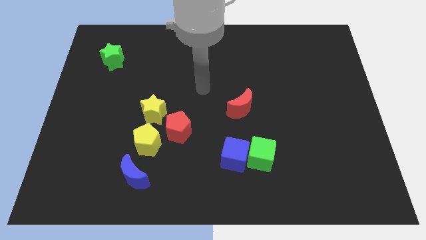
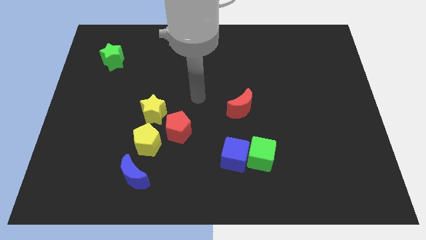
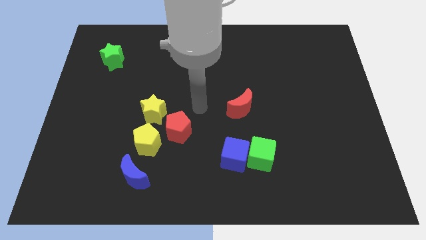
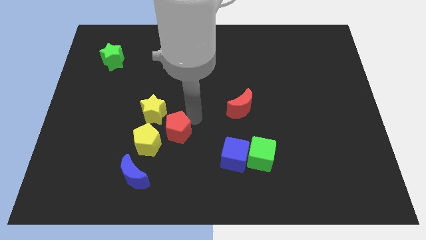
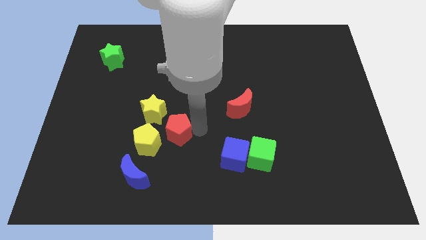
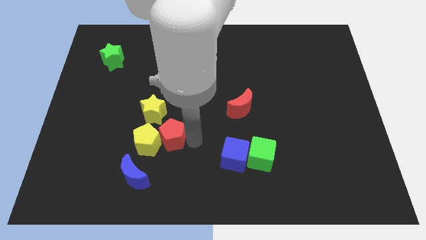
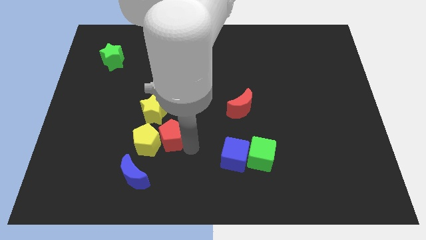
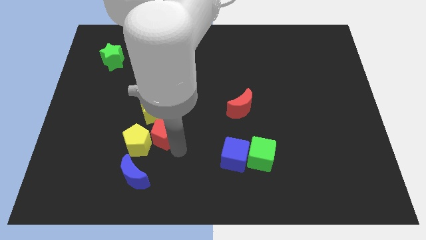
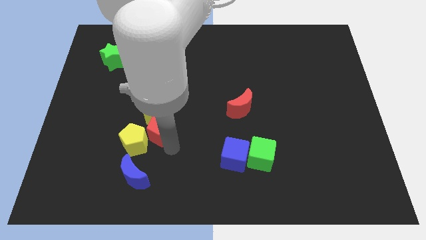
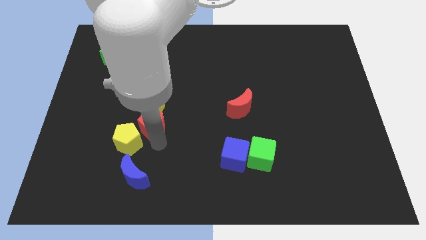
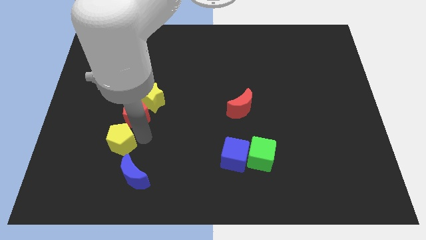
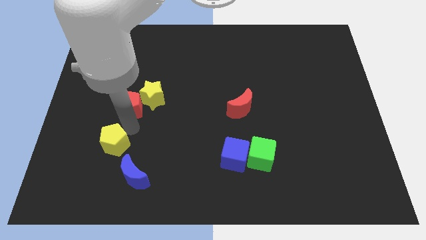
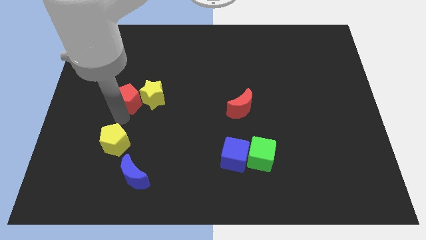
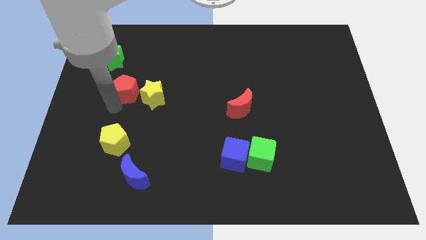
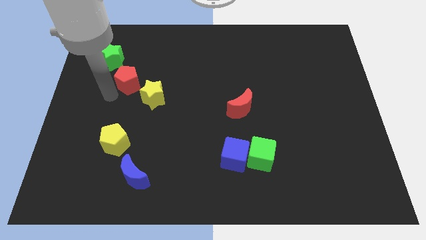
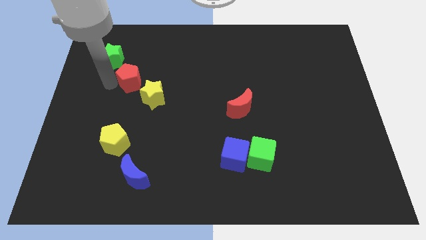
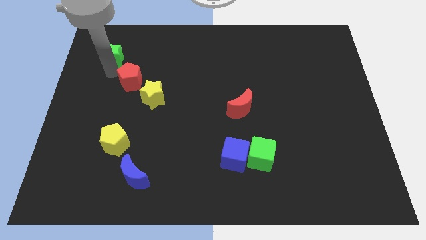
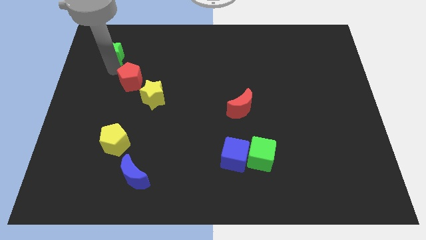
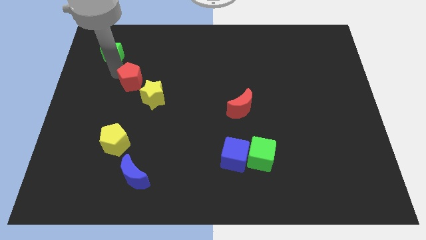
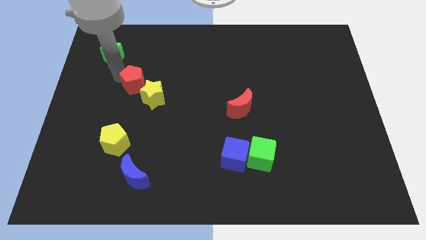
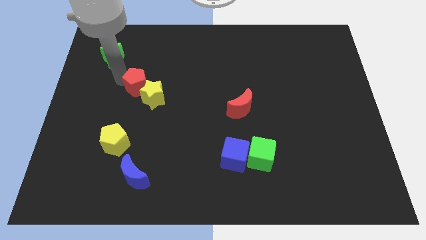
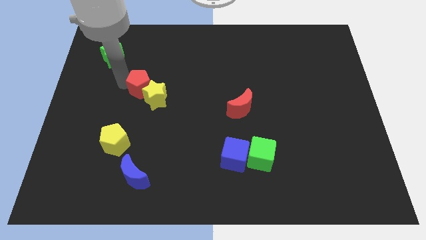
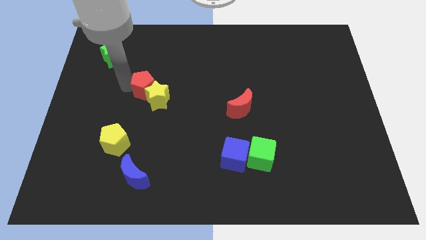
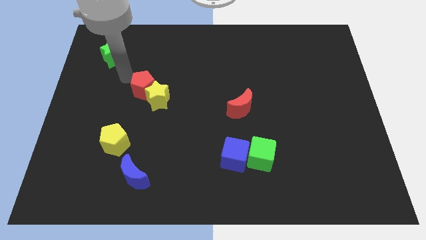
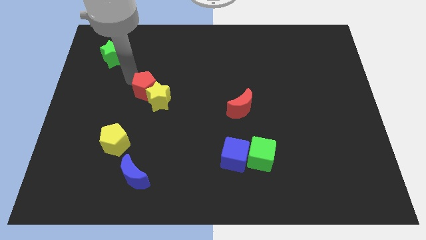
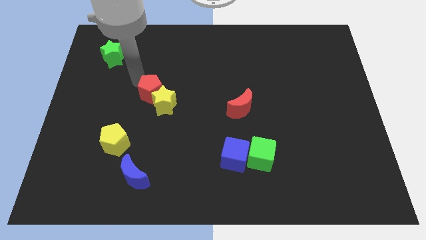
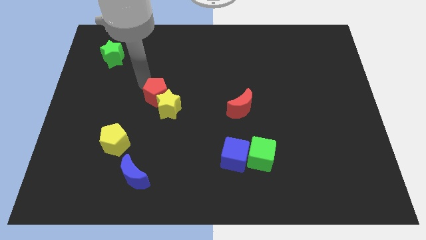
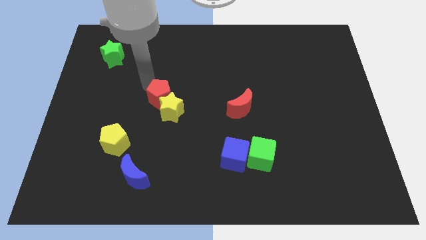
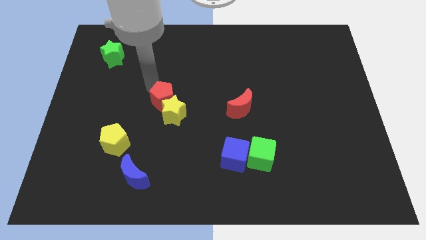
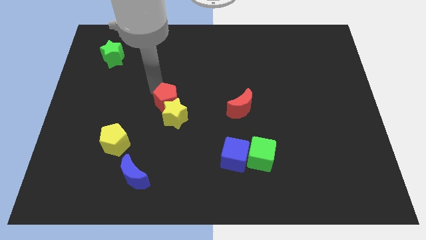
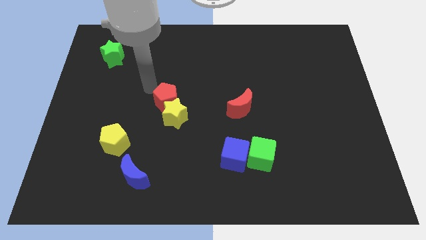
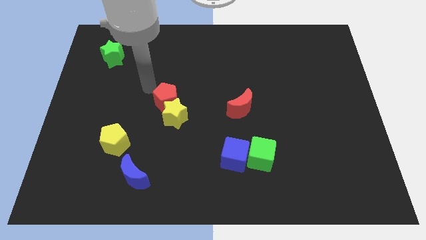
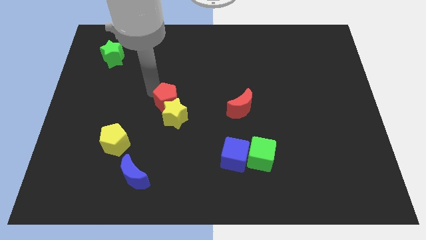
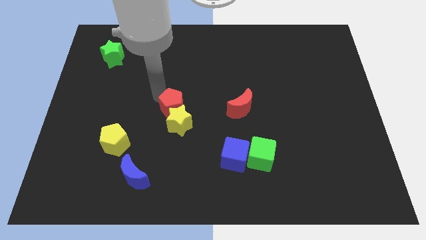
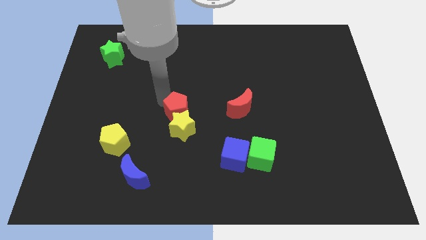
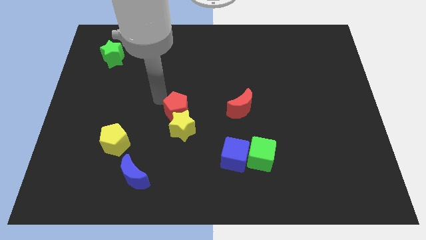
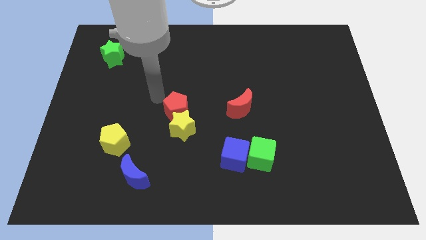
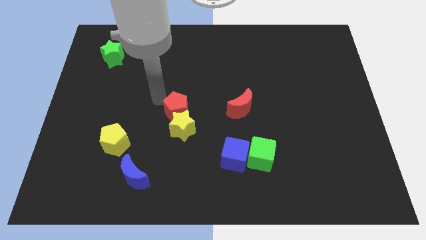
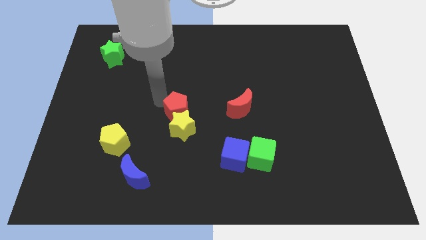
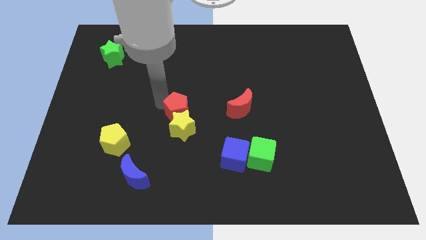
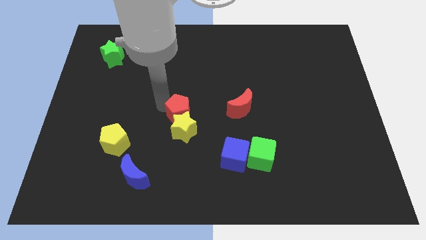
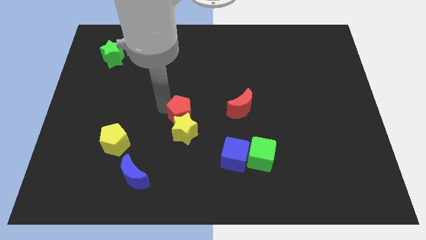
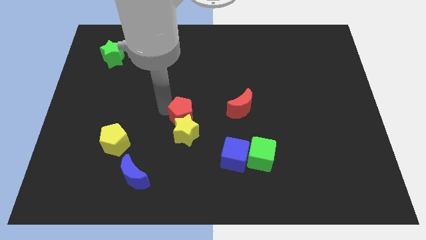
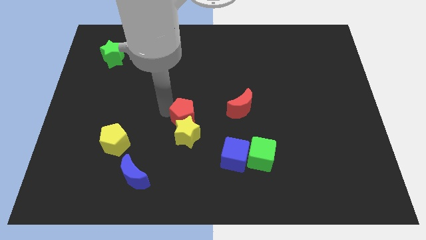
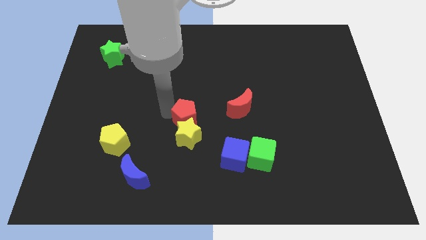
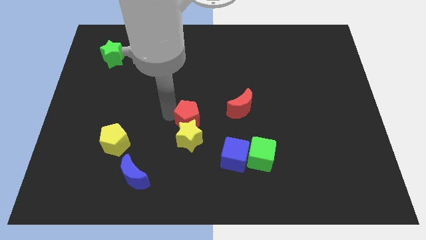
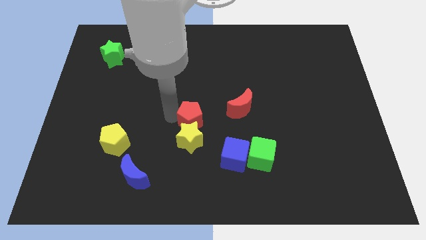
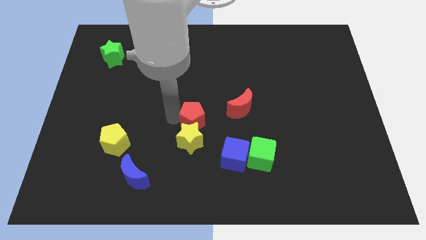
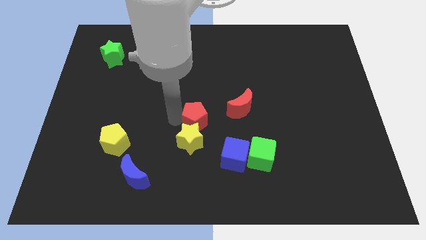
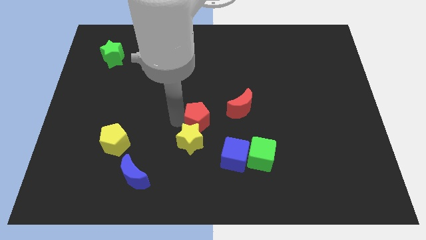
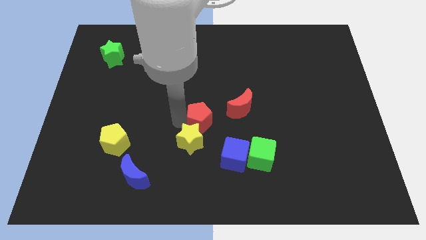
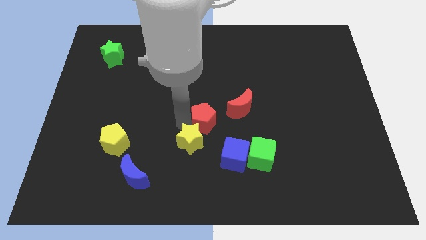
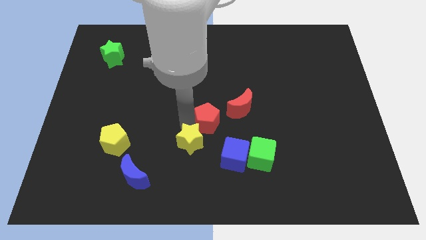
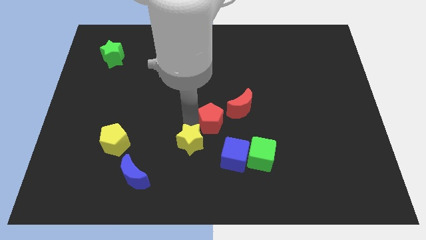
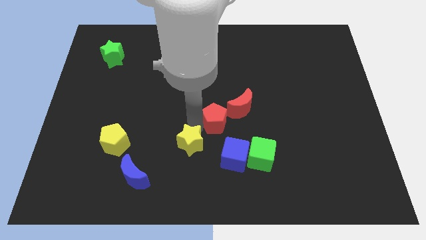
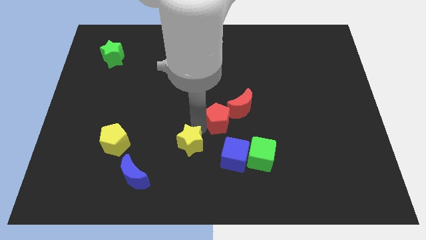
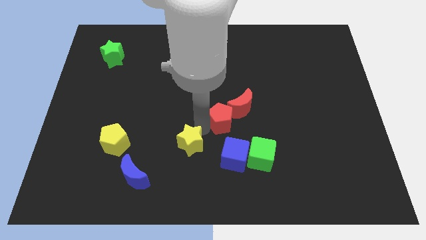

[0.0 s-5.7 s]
slide the red pentagon next to the red moon

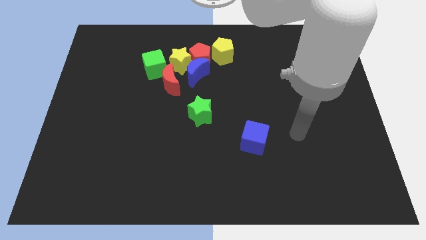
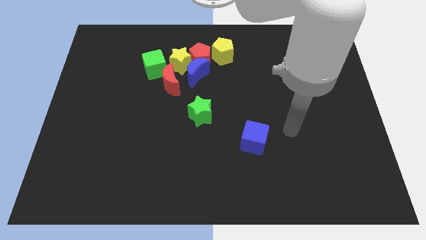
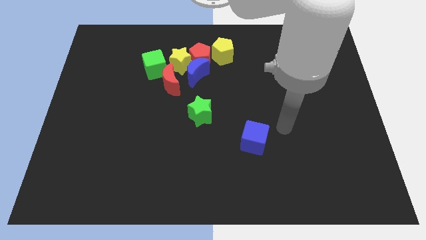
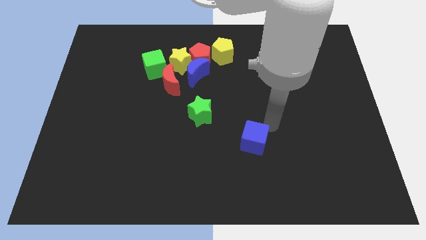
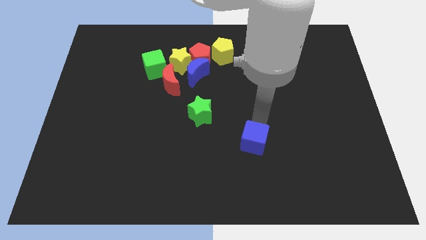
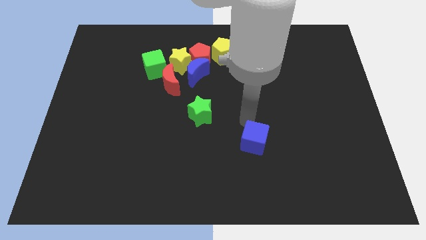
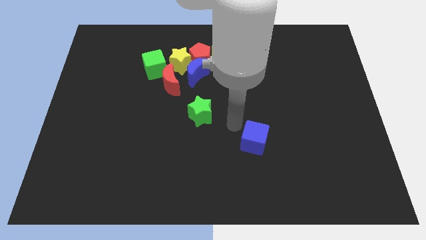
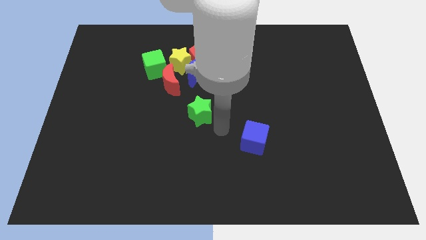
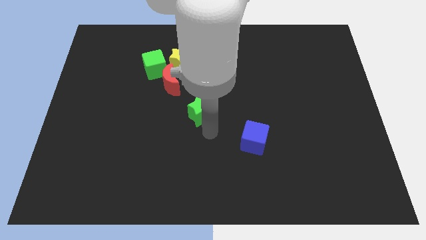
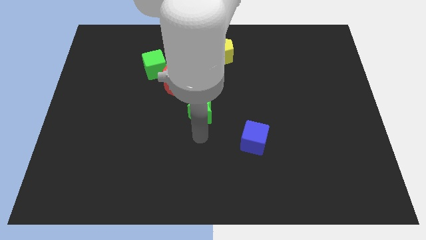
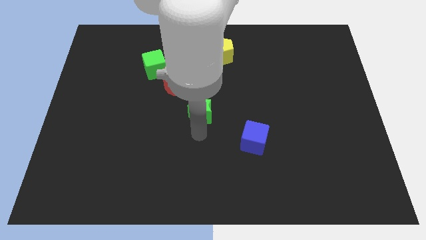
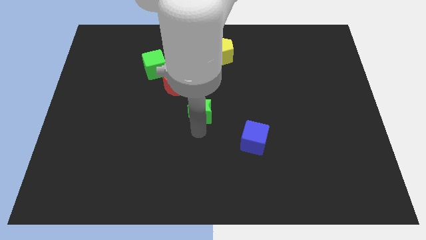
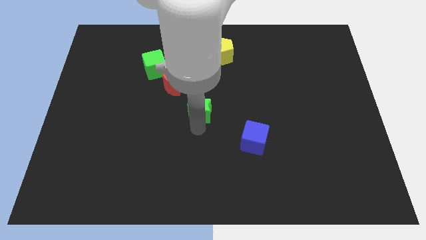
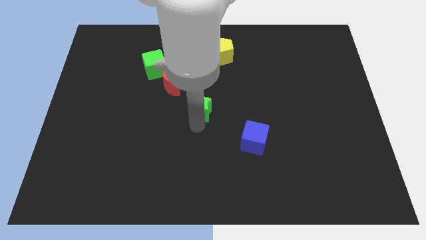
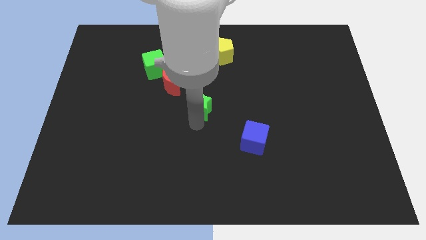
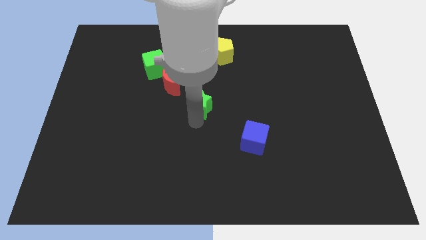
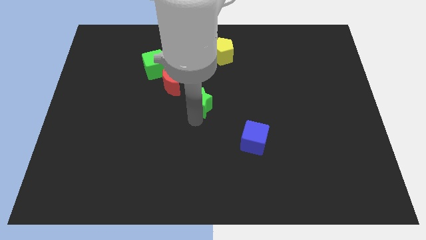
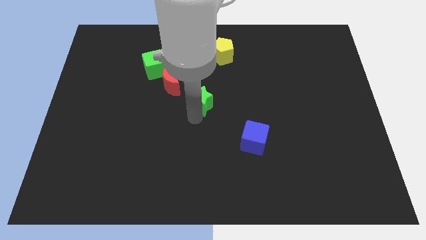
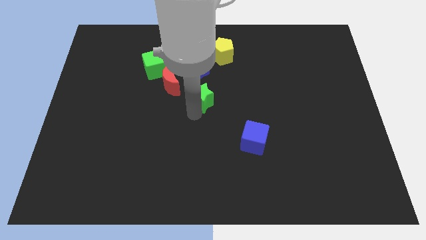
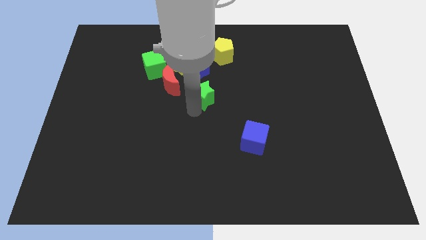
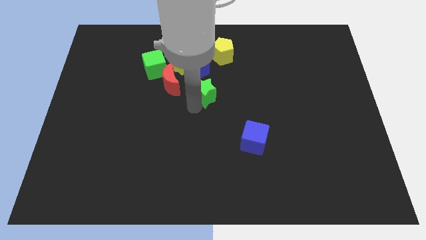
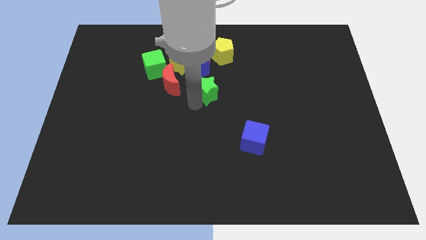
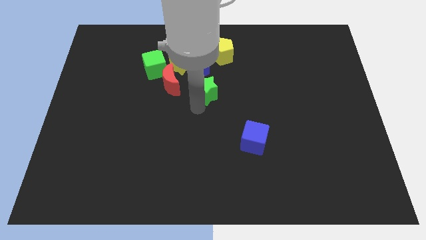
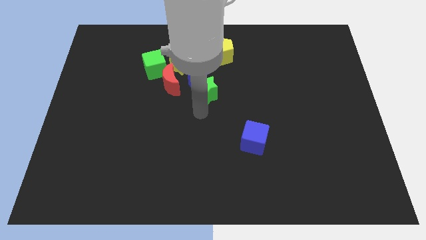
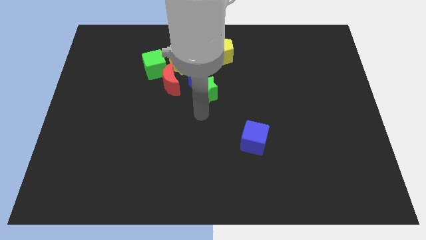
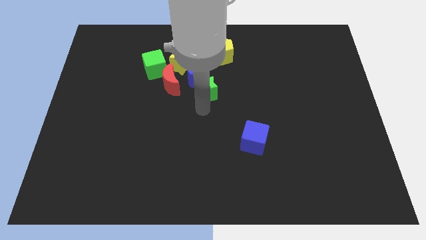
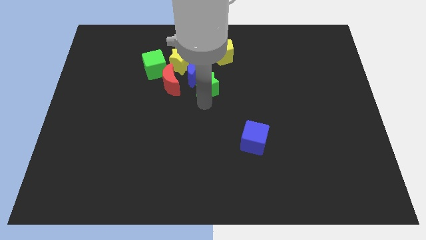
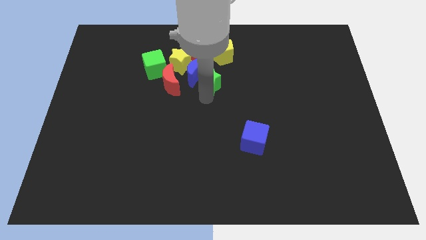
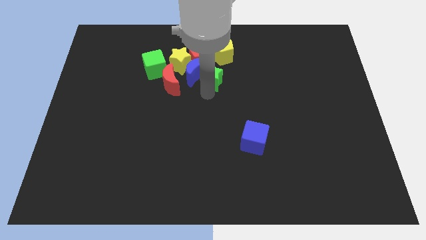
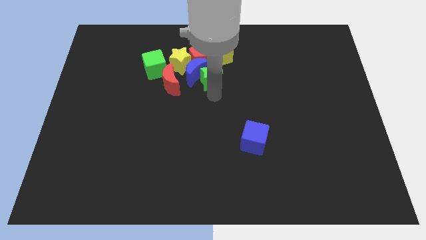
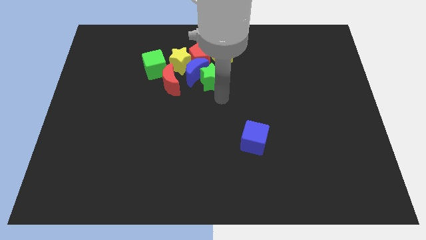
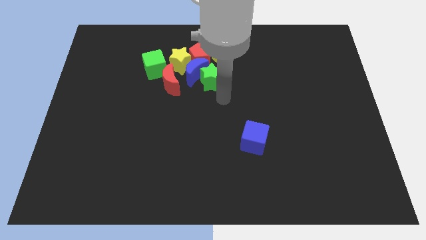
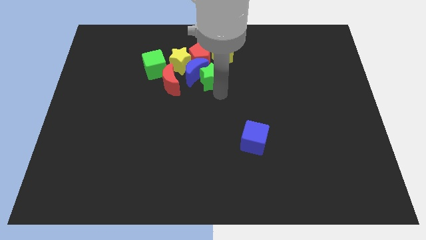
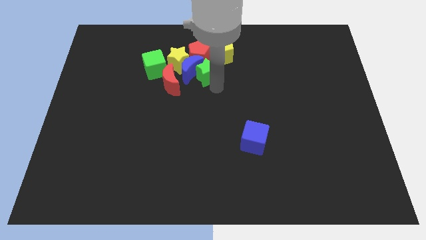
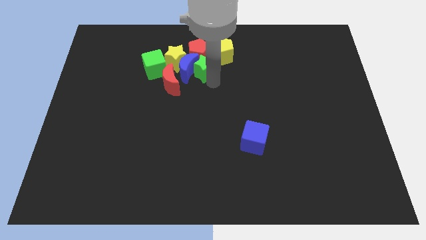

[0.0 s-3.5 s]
slide the green star close to the red pentagon
